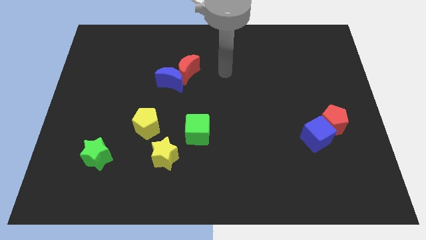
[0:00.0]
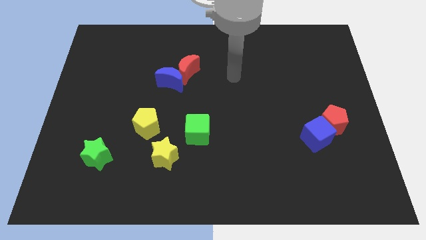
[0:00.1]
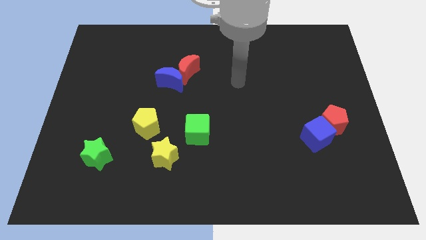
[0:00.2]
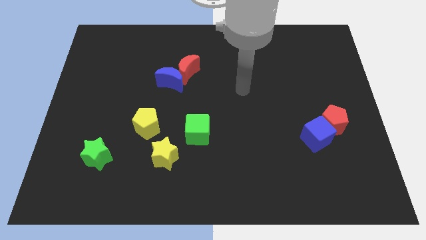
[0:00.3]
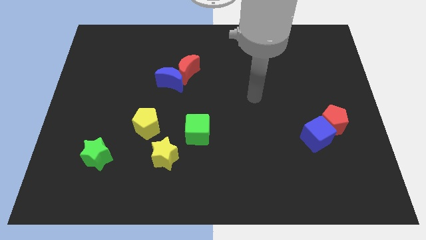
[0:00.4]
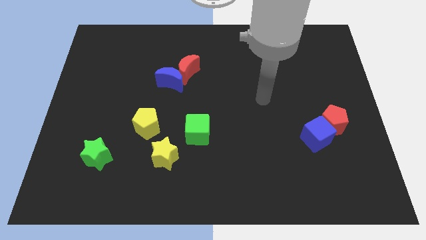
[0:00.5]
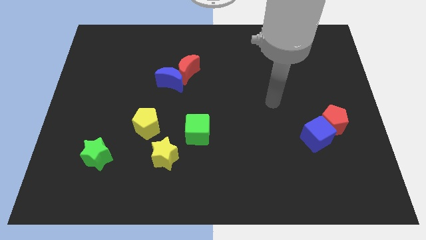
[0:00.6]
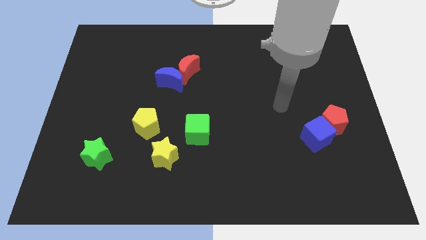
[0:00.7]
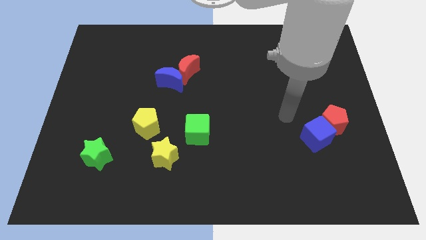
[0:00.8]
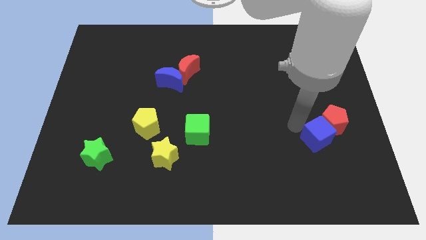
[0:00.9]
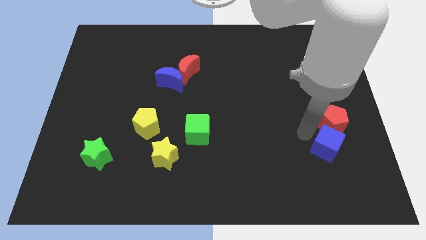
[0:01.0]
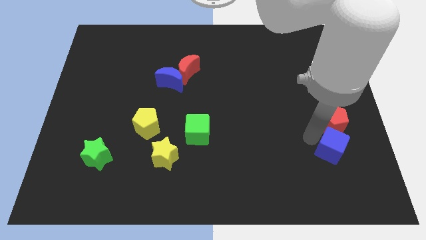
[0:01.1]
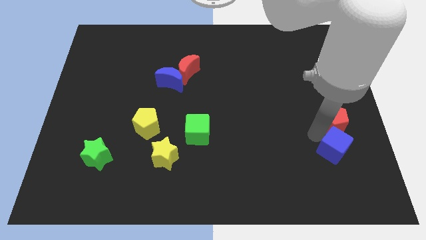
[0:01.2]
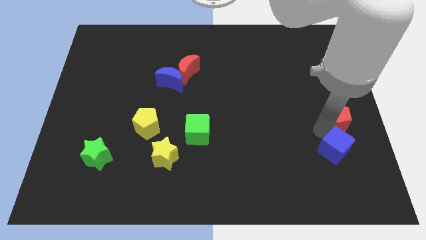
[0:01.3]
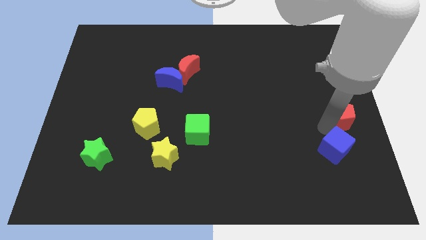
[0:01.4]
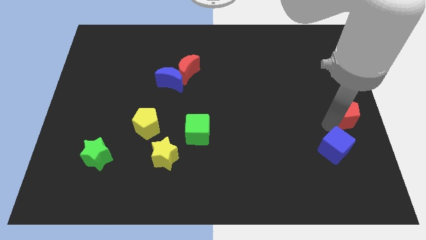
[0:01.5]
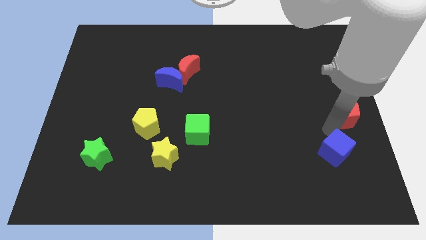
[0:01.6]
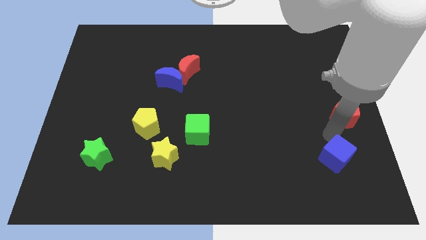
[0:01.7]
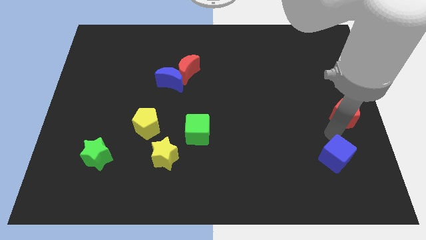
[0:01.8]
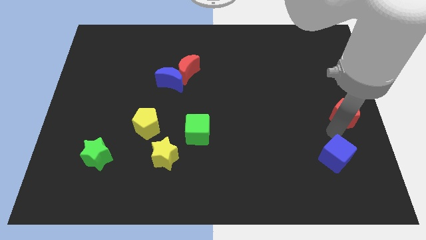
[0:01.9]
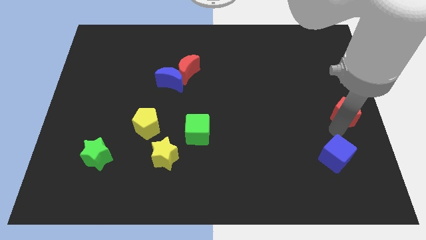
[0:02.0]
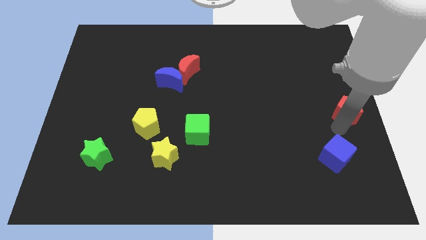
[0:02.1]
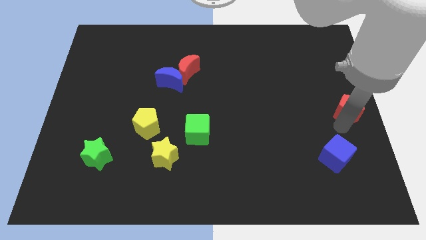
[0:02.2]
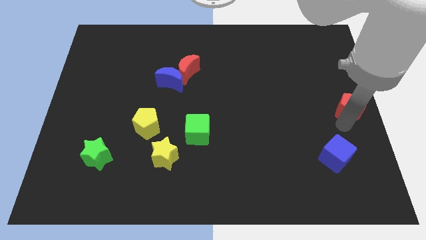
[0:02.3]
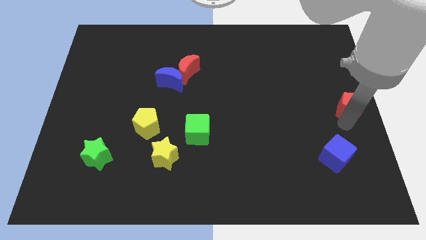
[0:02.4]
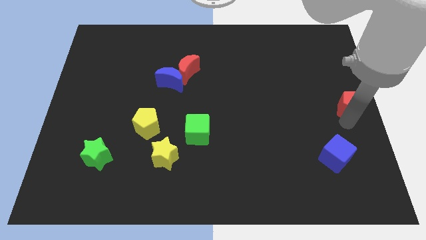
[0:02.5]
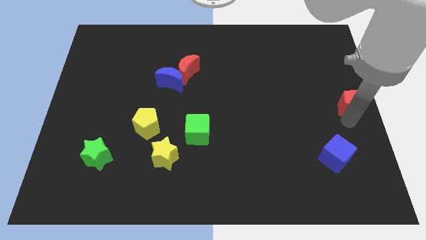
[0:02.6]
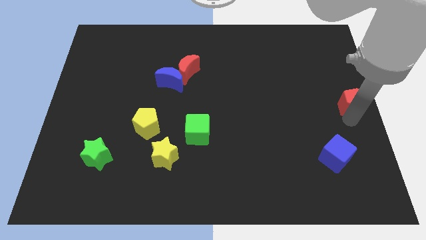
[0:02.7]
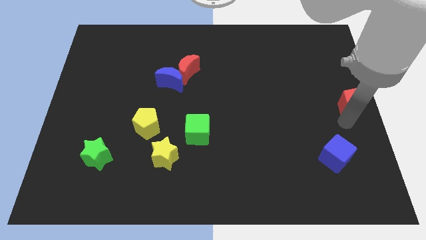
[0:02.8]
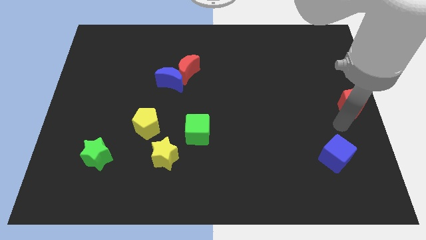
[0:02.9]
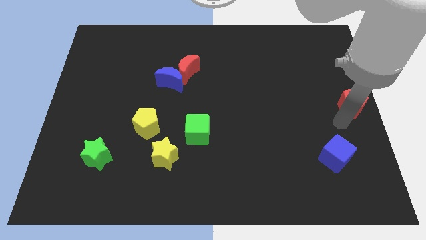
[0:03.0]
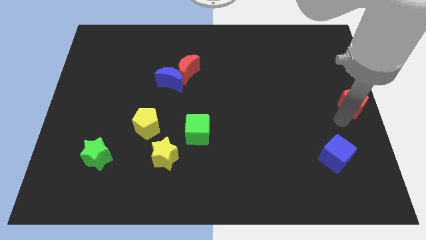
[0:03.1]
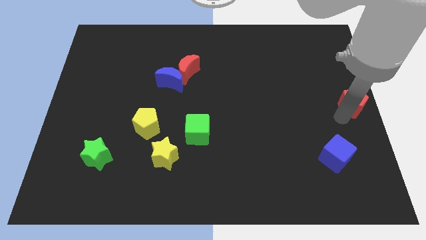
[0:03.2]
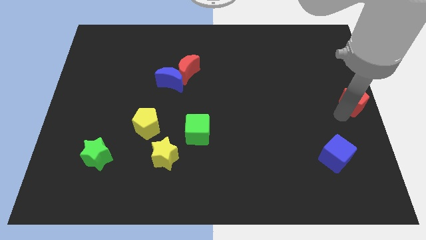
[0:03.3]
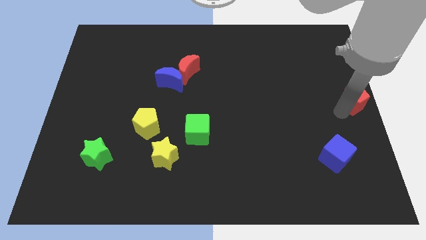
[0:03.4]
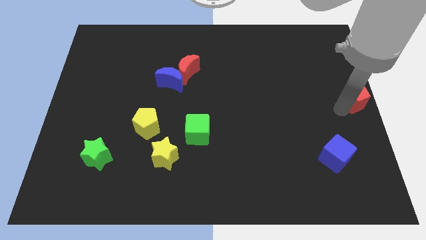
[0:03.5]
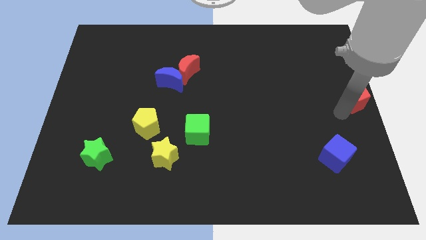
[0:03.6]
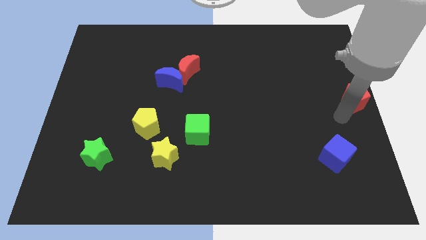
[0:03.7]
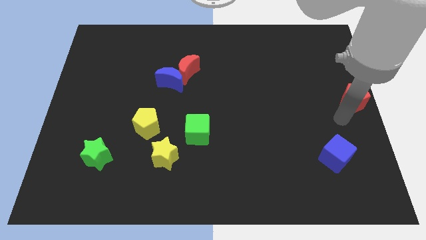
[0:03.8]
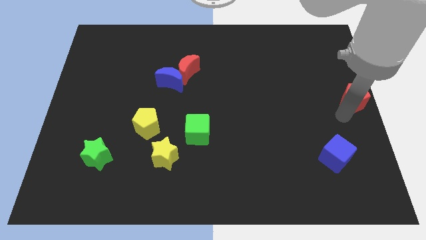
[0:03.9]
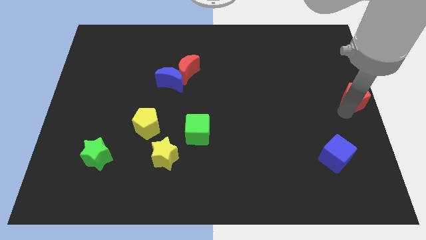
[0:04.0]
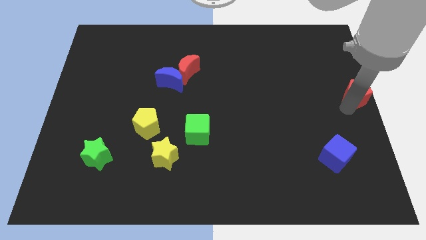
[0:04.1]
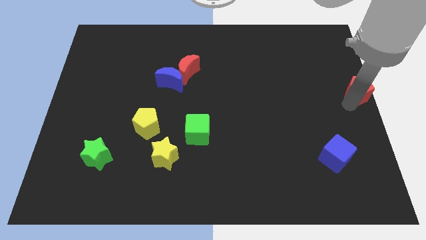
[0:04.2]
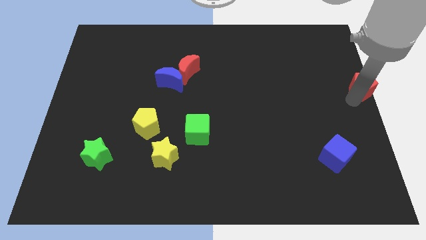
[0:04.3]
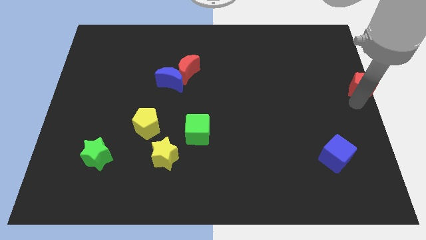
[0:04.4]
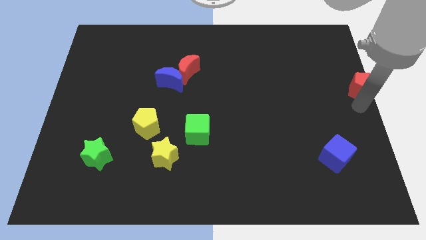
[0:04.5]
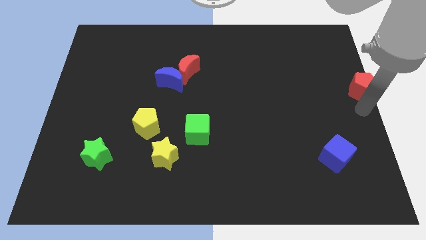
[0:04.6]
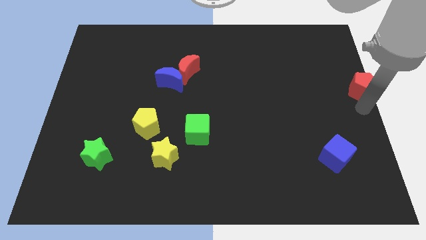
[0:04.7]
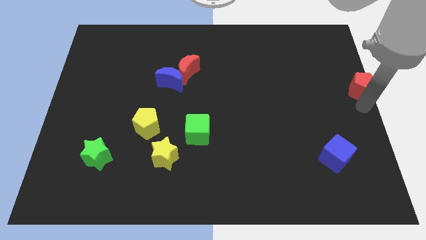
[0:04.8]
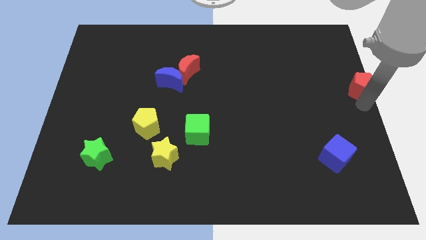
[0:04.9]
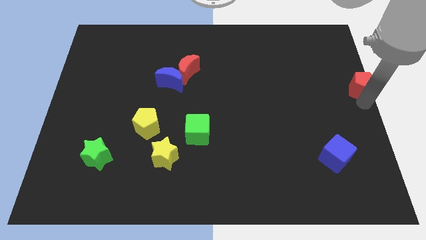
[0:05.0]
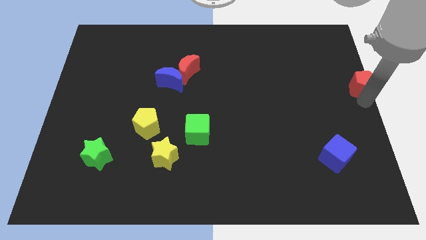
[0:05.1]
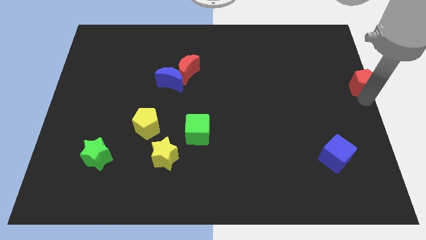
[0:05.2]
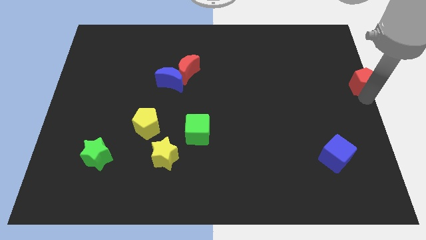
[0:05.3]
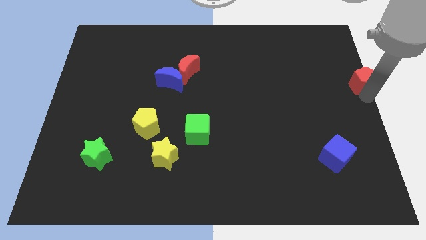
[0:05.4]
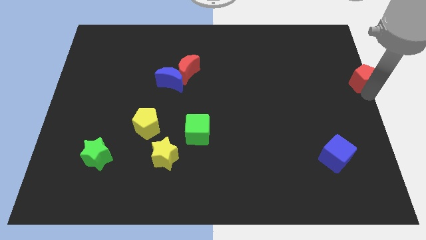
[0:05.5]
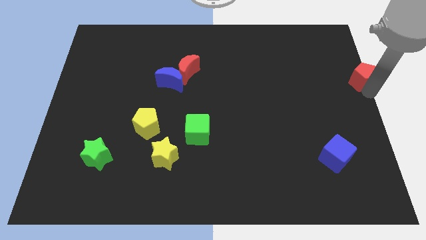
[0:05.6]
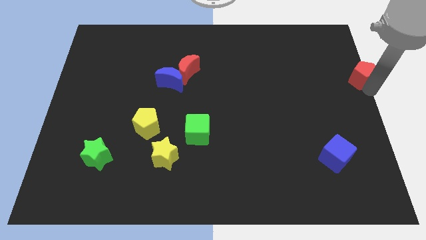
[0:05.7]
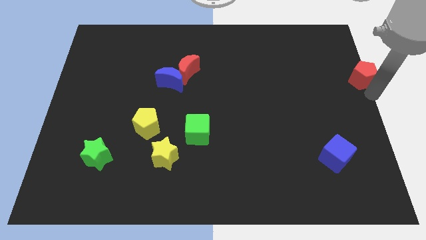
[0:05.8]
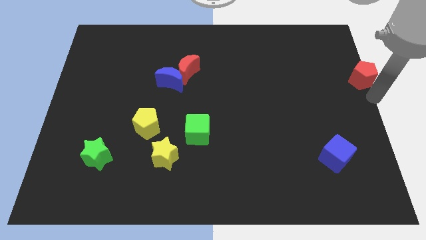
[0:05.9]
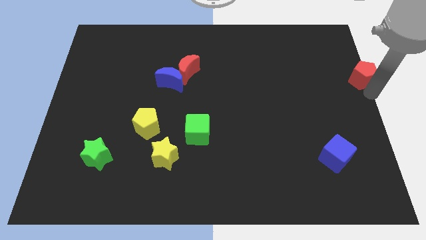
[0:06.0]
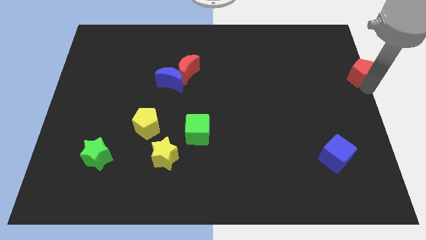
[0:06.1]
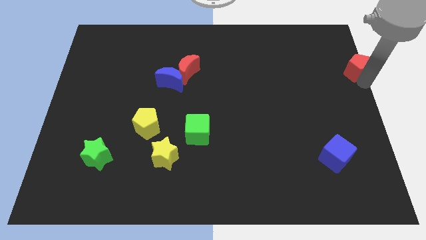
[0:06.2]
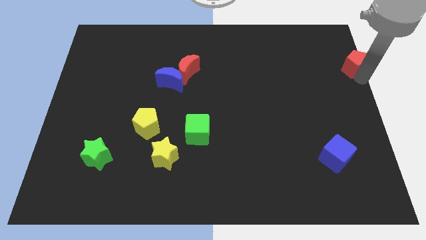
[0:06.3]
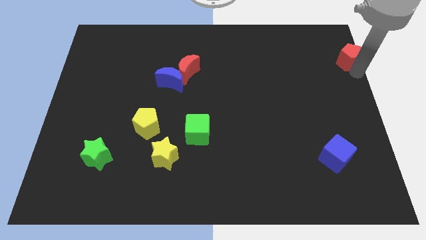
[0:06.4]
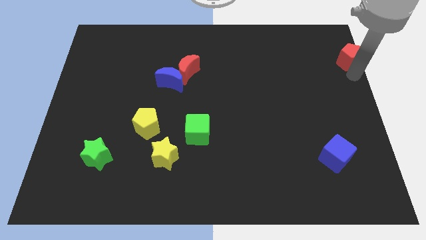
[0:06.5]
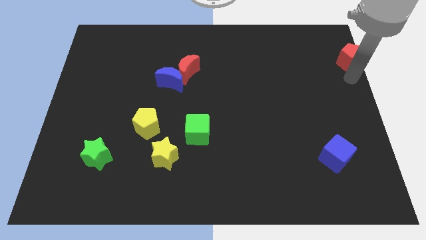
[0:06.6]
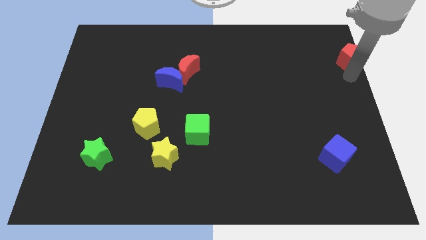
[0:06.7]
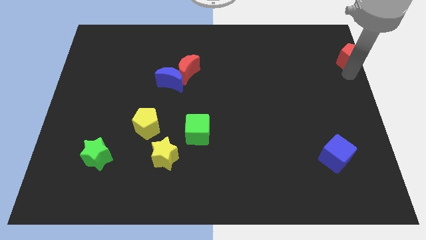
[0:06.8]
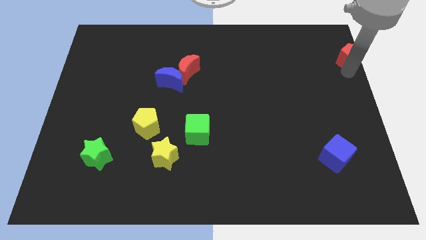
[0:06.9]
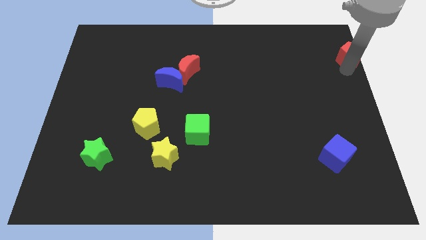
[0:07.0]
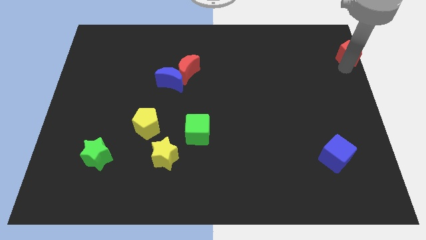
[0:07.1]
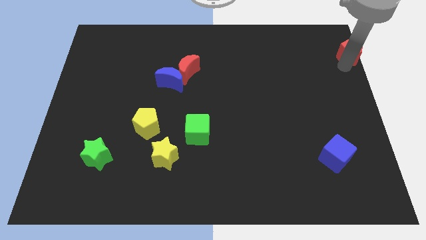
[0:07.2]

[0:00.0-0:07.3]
slide the red pentagon to the top right of the board
